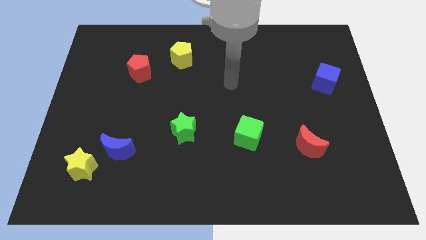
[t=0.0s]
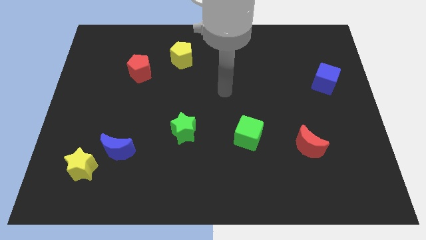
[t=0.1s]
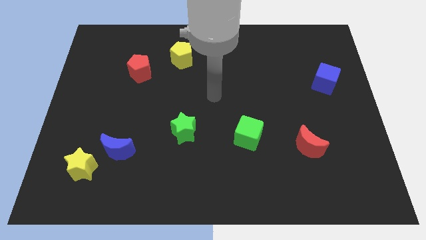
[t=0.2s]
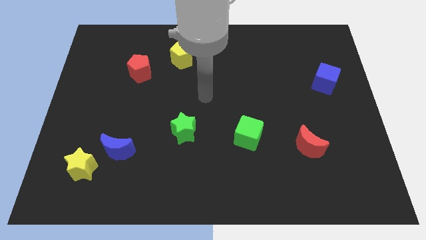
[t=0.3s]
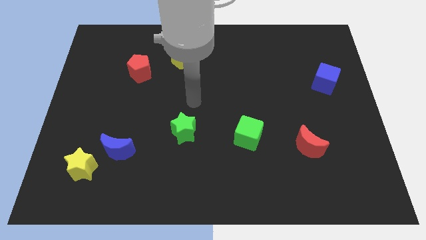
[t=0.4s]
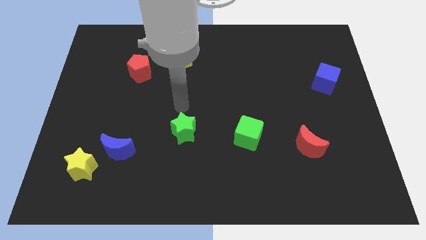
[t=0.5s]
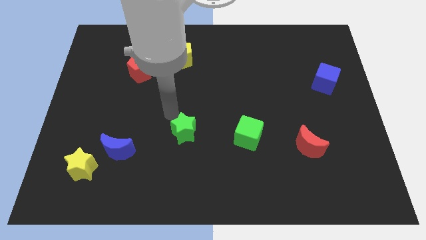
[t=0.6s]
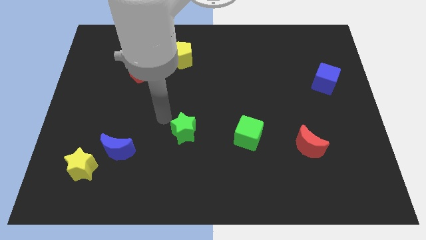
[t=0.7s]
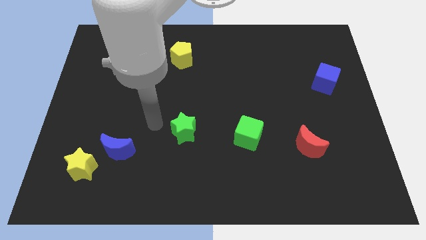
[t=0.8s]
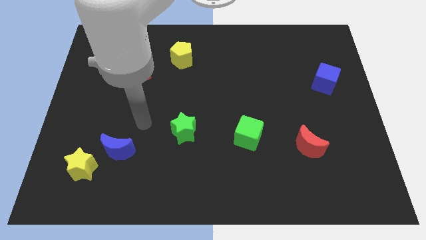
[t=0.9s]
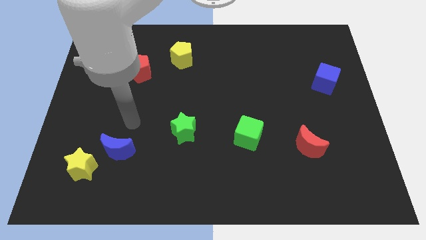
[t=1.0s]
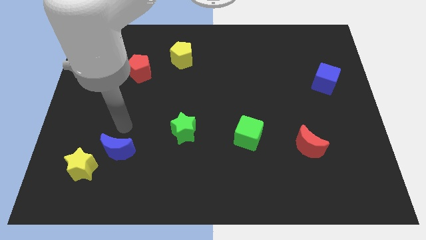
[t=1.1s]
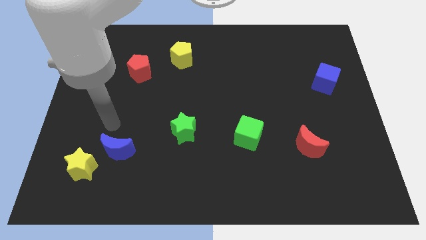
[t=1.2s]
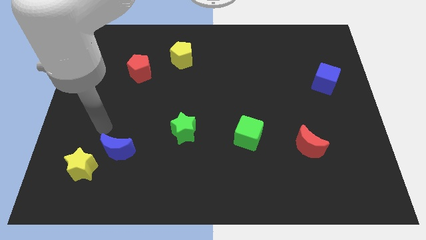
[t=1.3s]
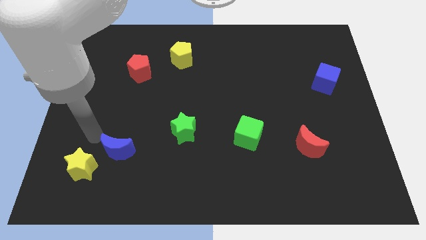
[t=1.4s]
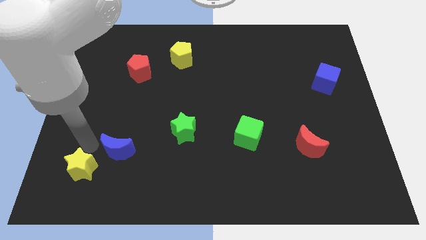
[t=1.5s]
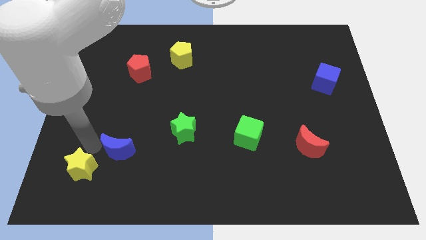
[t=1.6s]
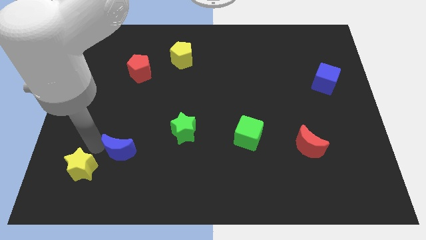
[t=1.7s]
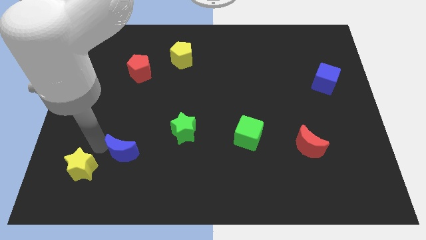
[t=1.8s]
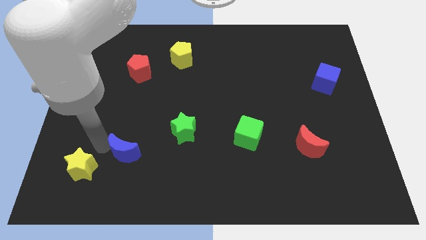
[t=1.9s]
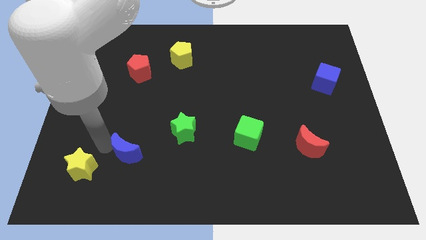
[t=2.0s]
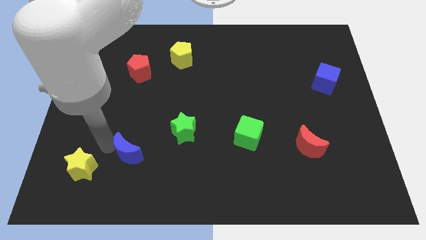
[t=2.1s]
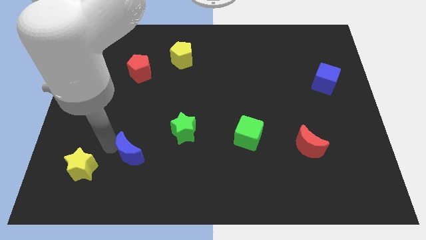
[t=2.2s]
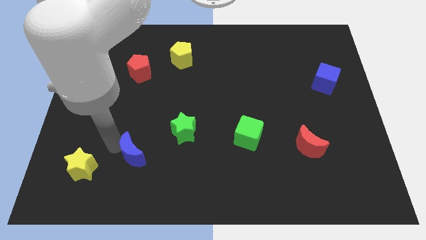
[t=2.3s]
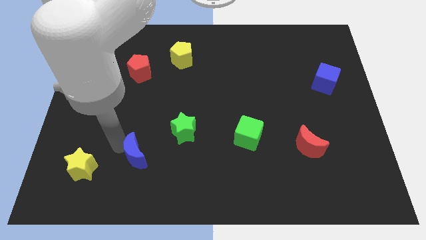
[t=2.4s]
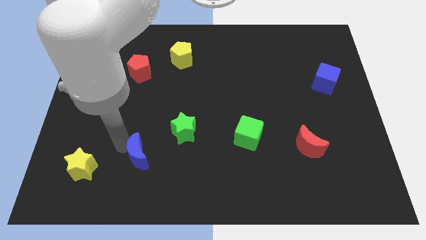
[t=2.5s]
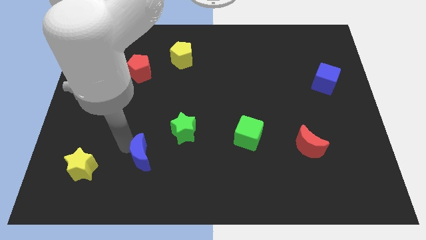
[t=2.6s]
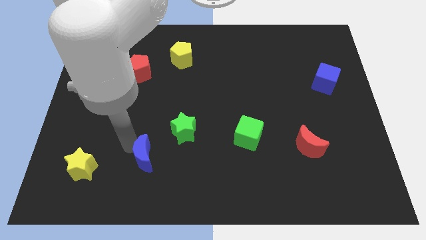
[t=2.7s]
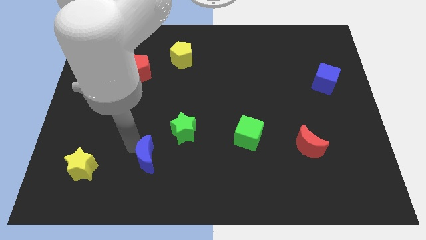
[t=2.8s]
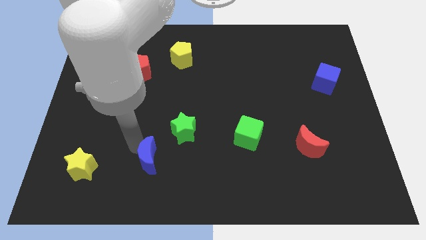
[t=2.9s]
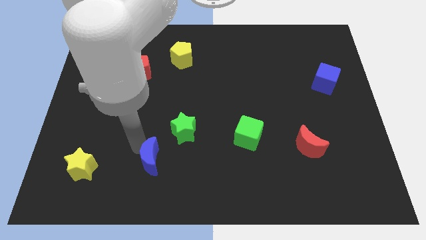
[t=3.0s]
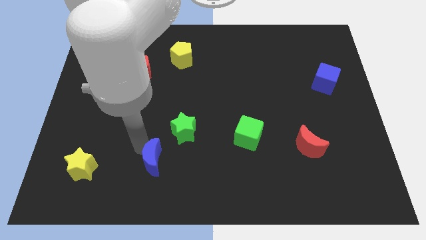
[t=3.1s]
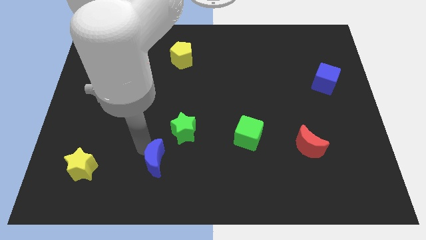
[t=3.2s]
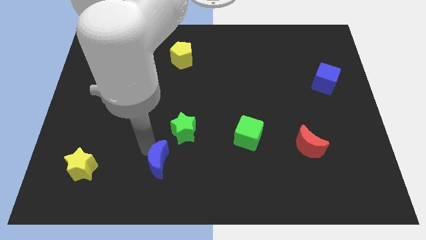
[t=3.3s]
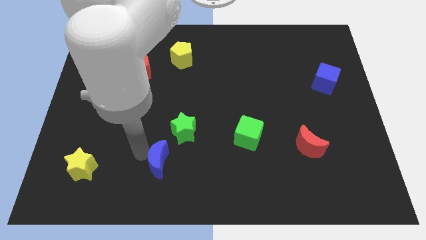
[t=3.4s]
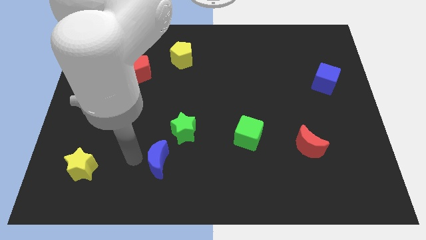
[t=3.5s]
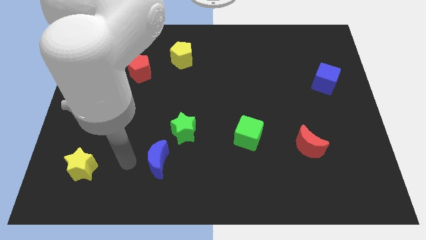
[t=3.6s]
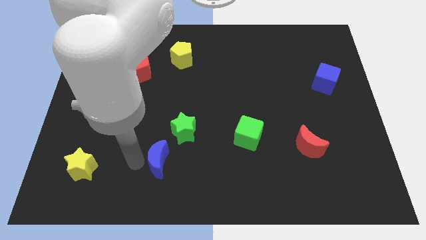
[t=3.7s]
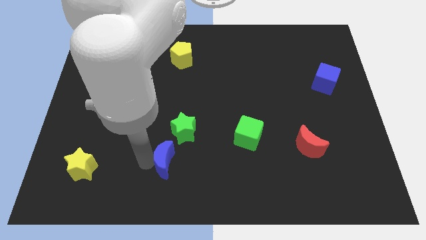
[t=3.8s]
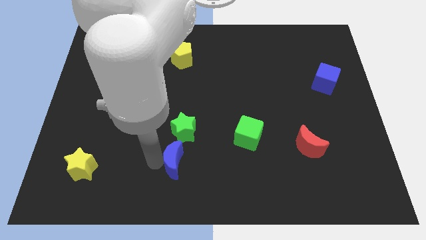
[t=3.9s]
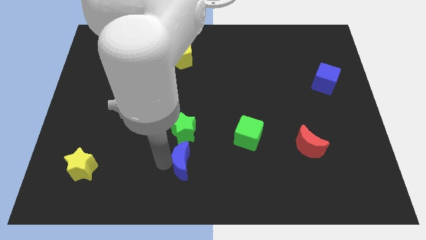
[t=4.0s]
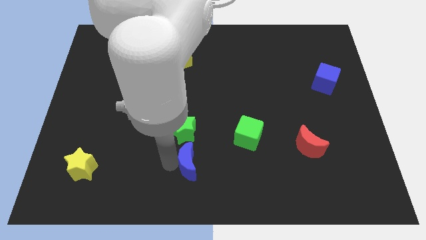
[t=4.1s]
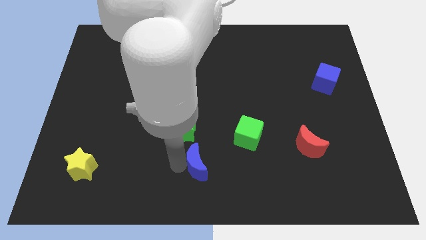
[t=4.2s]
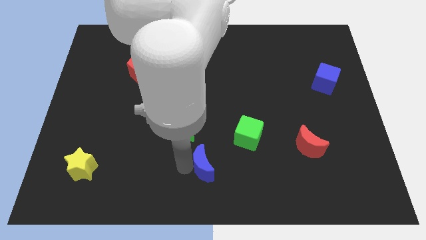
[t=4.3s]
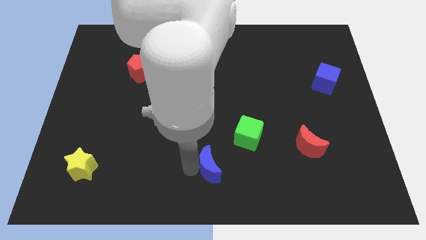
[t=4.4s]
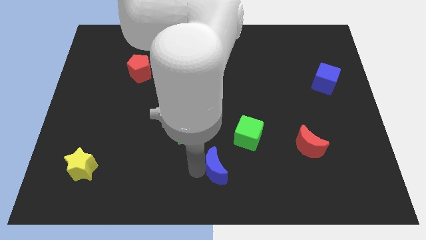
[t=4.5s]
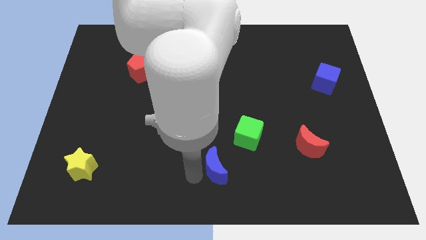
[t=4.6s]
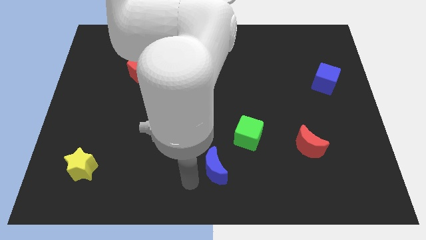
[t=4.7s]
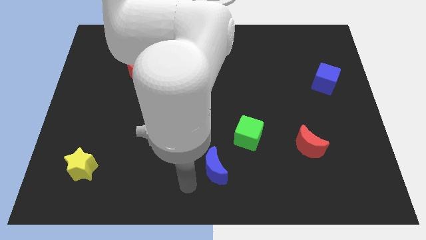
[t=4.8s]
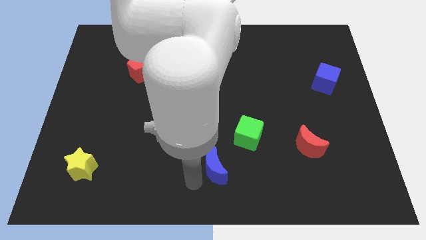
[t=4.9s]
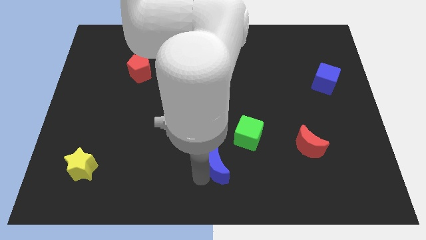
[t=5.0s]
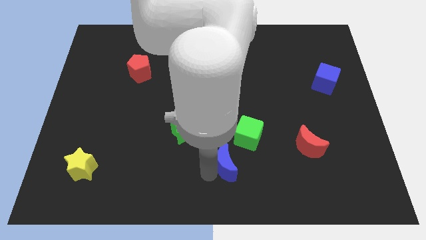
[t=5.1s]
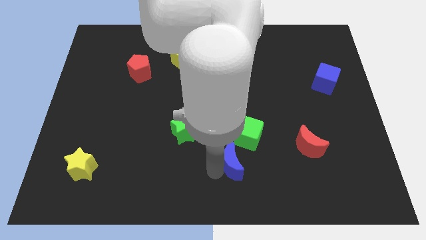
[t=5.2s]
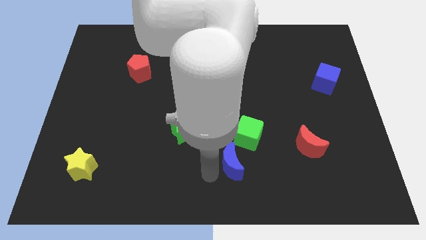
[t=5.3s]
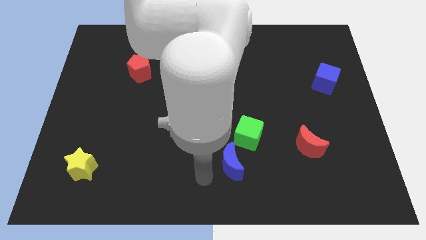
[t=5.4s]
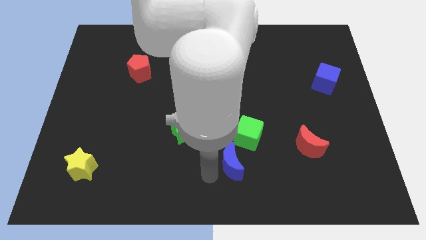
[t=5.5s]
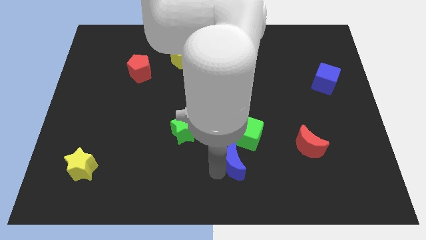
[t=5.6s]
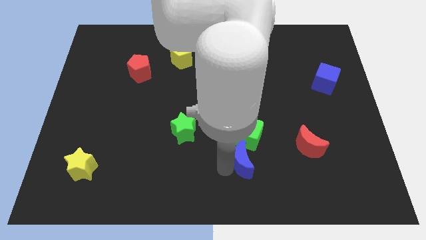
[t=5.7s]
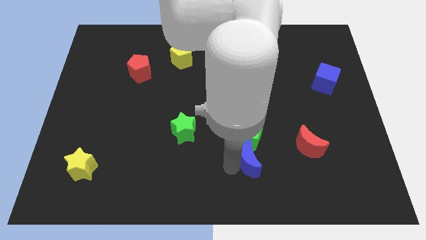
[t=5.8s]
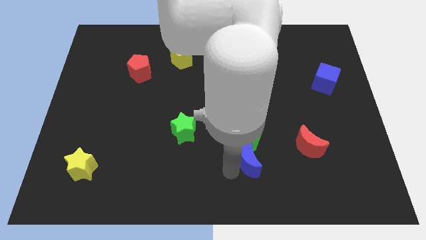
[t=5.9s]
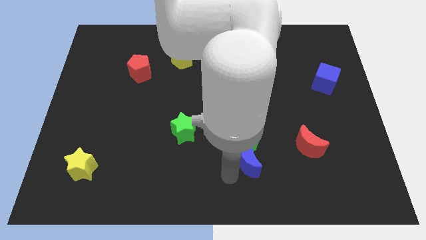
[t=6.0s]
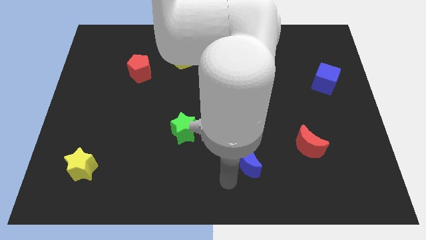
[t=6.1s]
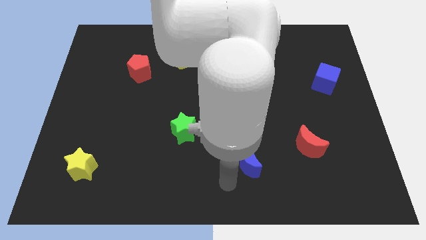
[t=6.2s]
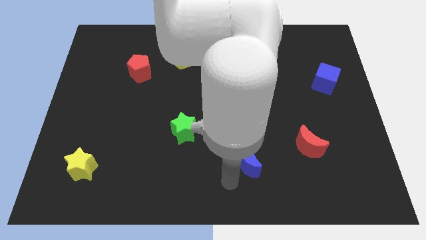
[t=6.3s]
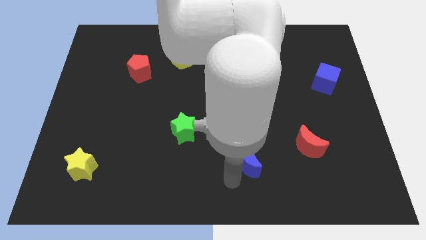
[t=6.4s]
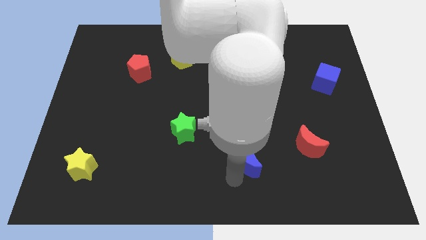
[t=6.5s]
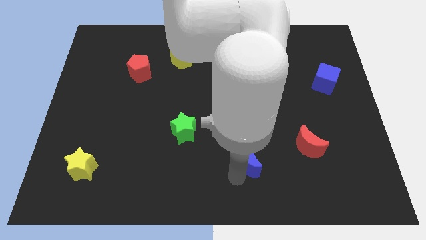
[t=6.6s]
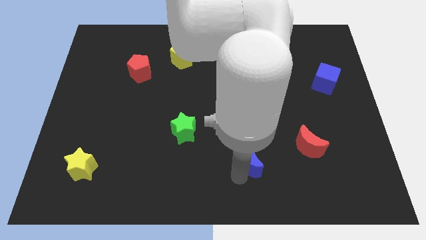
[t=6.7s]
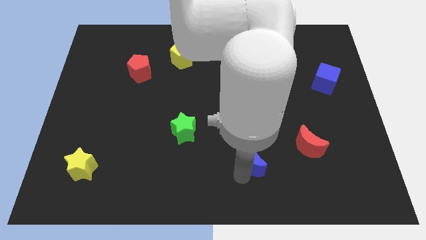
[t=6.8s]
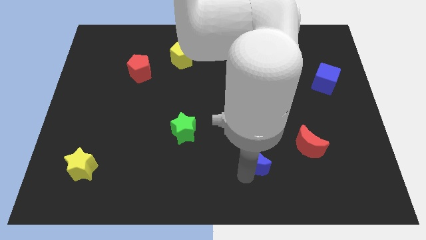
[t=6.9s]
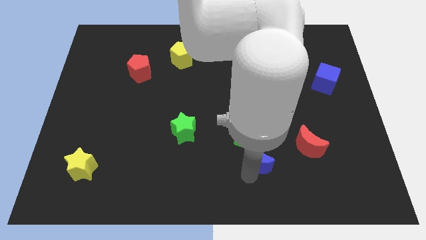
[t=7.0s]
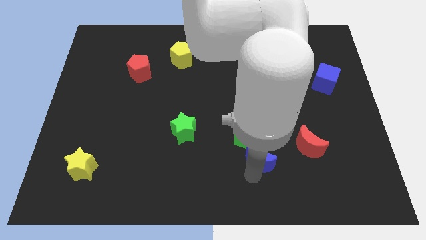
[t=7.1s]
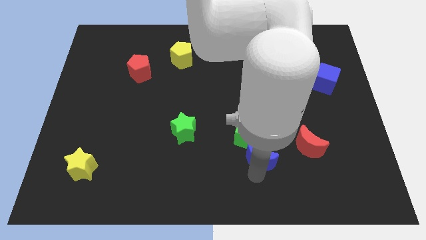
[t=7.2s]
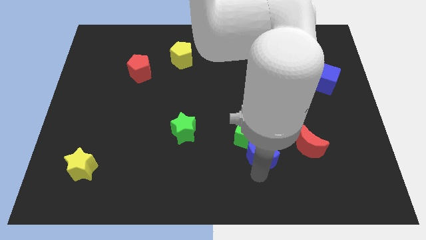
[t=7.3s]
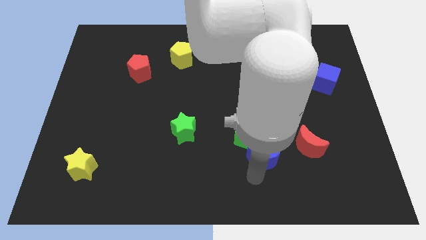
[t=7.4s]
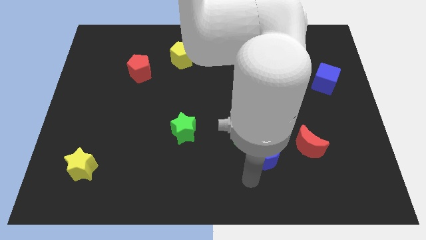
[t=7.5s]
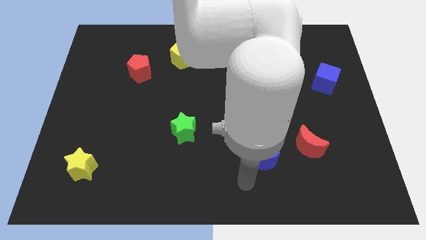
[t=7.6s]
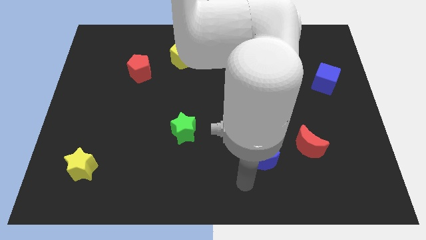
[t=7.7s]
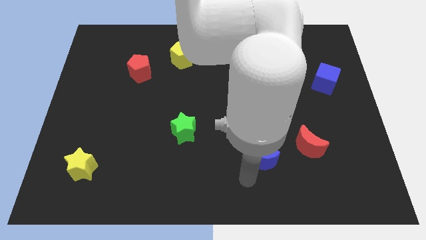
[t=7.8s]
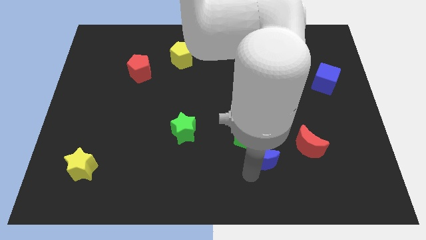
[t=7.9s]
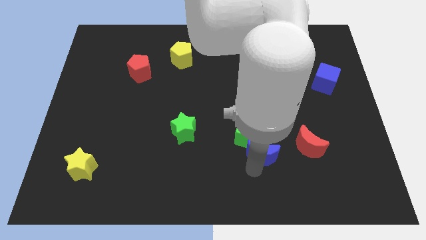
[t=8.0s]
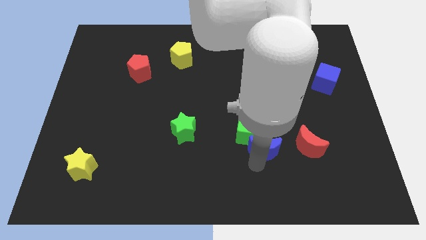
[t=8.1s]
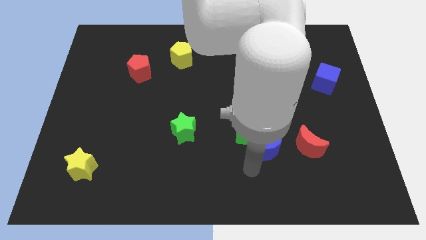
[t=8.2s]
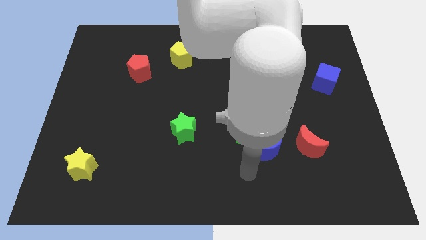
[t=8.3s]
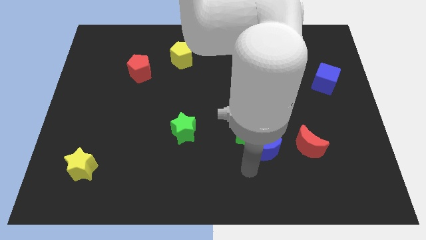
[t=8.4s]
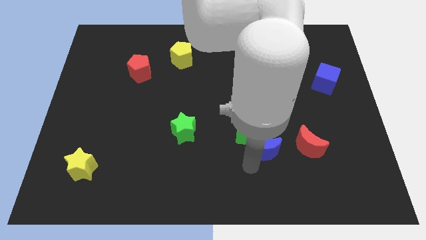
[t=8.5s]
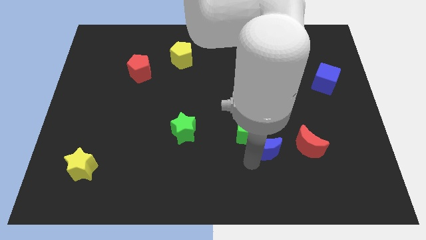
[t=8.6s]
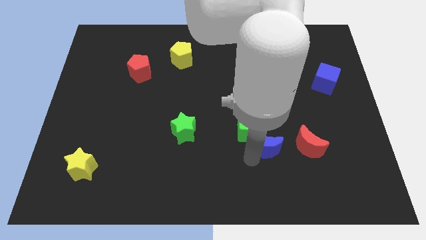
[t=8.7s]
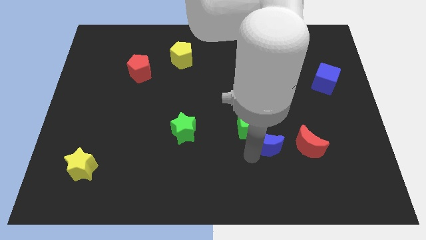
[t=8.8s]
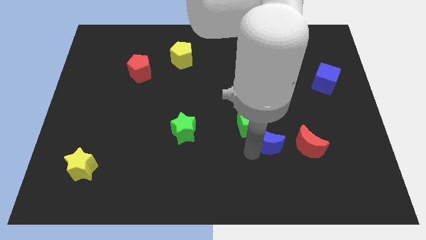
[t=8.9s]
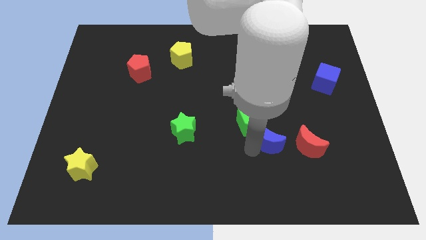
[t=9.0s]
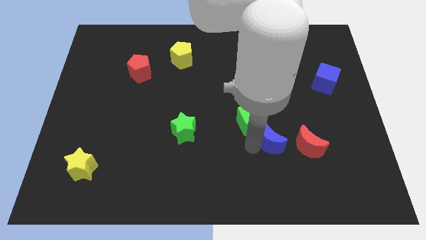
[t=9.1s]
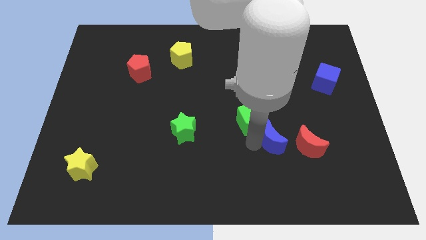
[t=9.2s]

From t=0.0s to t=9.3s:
push the blue moon diagonally up and to the left of the red moon
